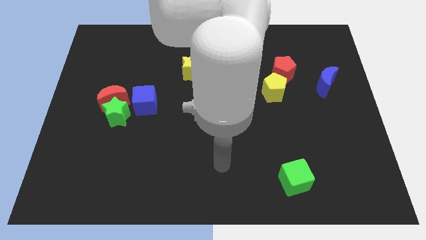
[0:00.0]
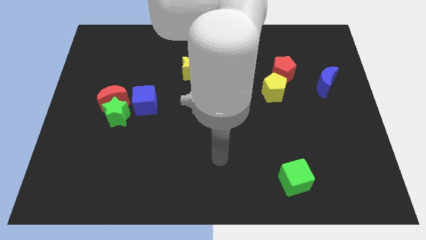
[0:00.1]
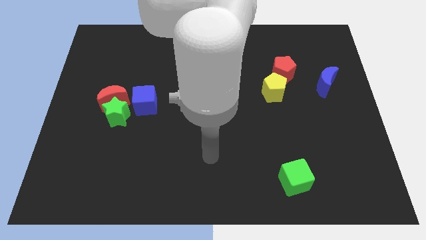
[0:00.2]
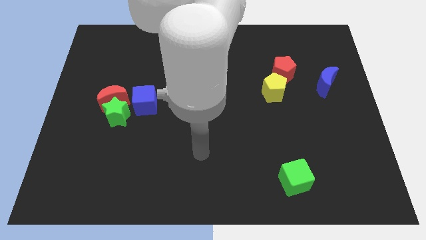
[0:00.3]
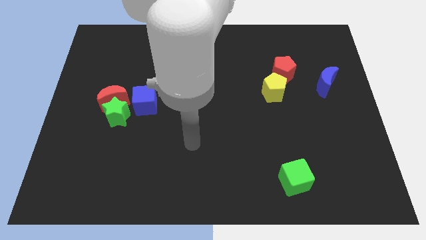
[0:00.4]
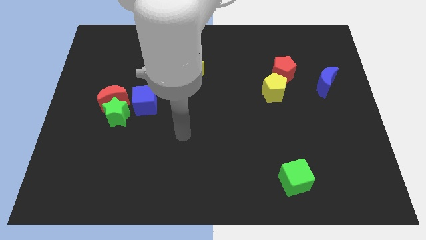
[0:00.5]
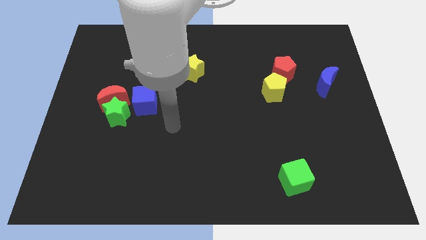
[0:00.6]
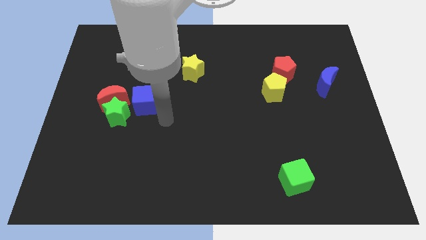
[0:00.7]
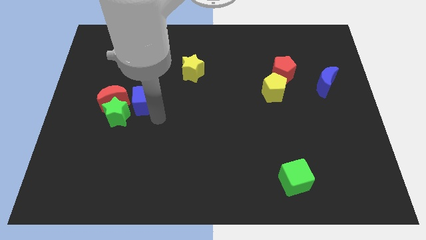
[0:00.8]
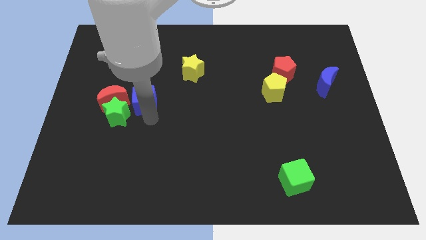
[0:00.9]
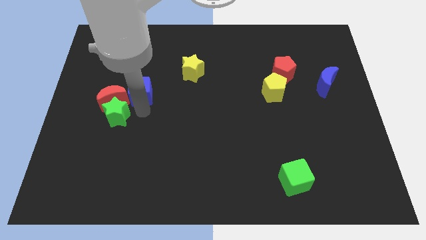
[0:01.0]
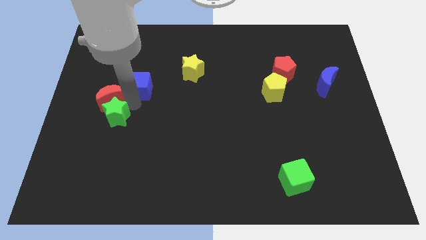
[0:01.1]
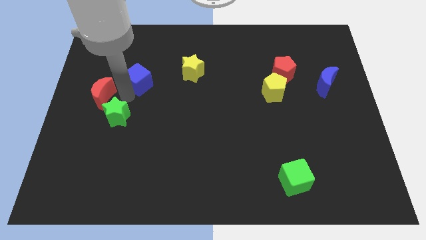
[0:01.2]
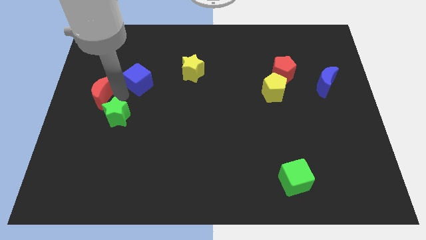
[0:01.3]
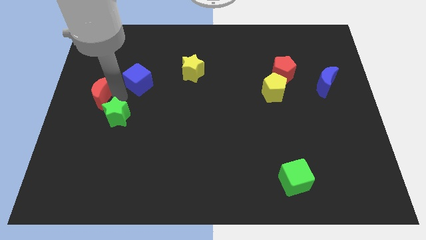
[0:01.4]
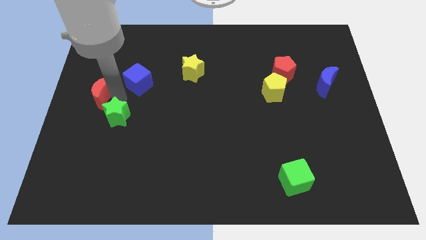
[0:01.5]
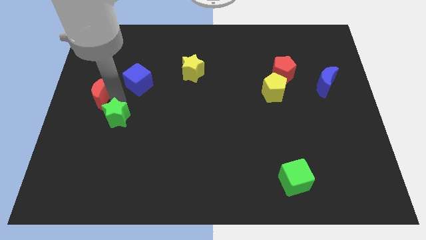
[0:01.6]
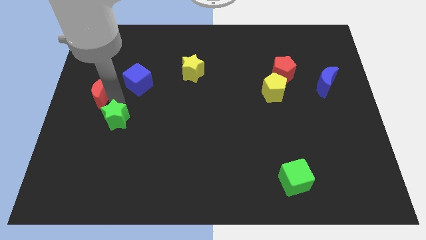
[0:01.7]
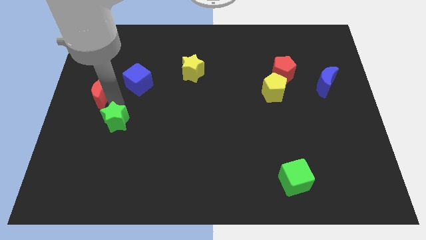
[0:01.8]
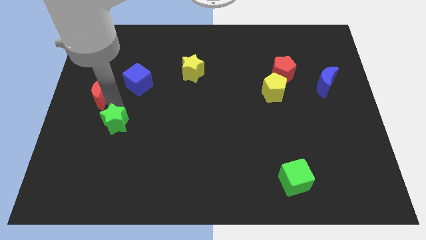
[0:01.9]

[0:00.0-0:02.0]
move the green star away from the red moon and blue cube

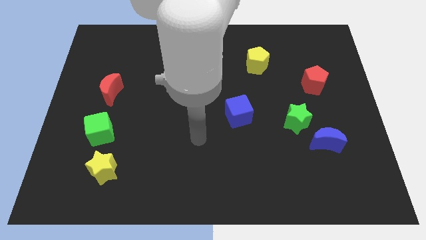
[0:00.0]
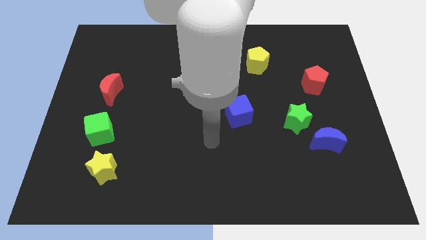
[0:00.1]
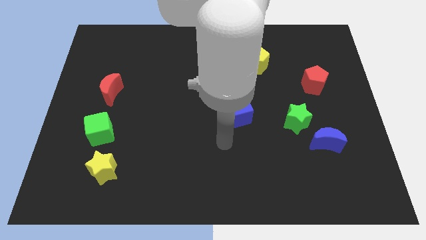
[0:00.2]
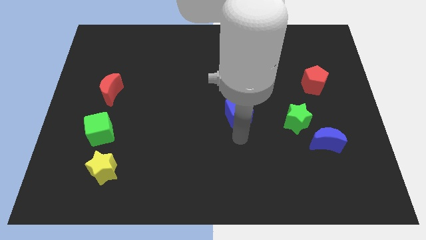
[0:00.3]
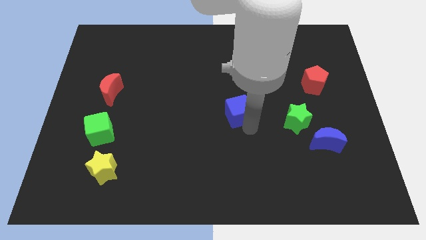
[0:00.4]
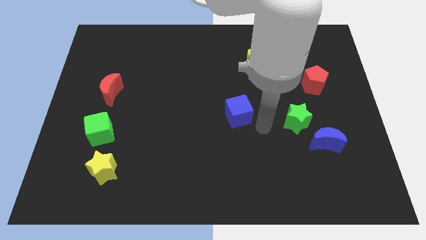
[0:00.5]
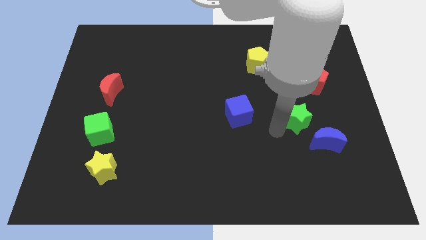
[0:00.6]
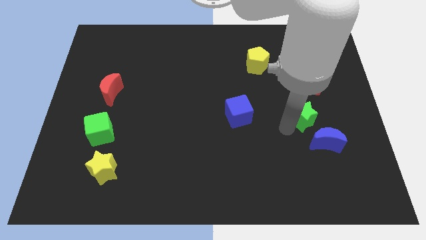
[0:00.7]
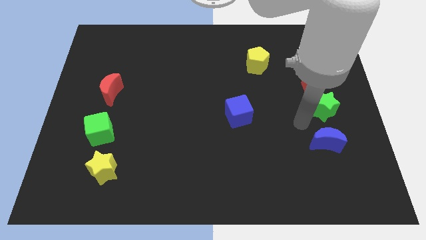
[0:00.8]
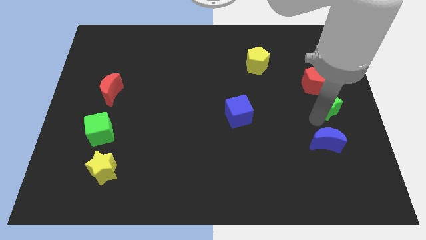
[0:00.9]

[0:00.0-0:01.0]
pull the blue moon apart from the green star

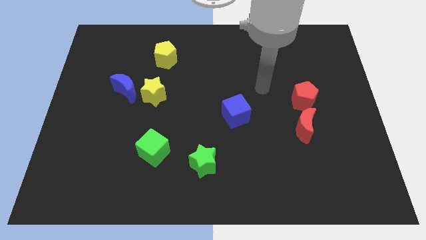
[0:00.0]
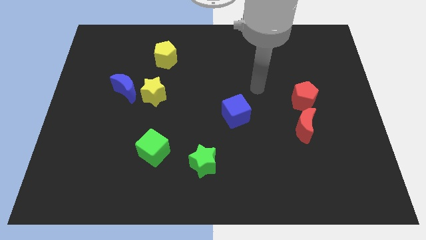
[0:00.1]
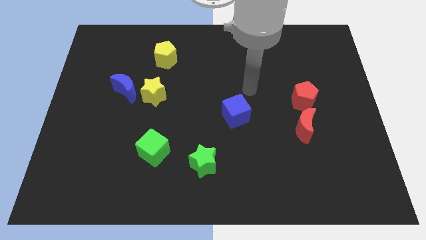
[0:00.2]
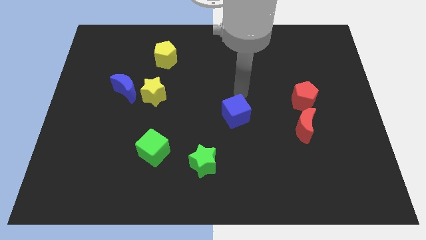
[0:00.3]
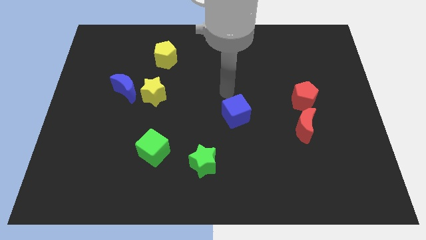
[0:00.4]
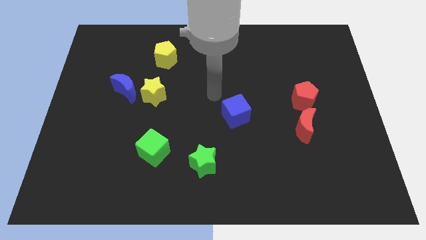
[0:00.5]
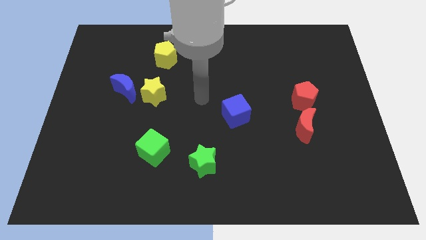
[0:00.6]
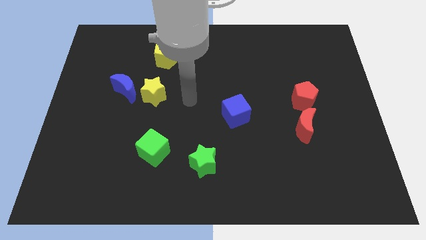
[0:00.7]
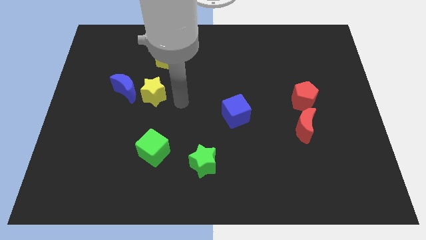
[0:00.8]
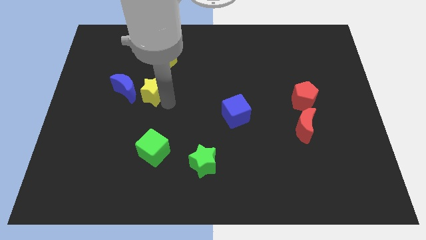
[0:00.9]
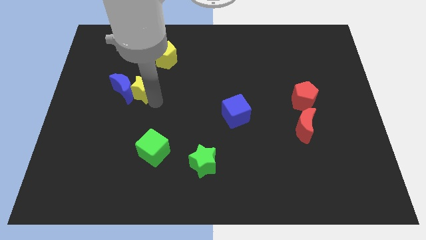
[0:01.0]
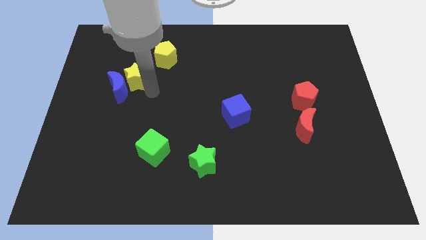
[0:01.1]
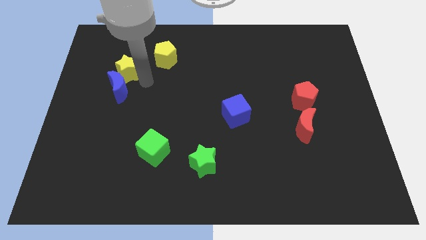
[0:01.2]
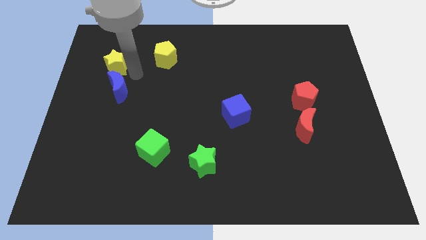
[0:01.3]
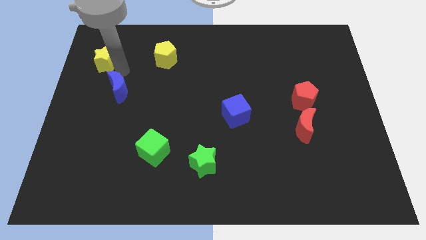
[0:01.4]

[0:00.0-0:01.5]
separate the blue moon from the yellow star

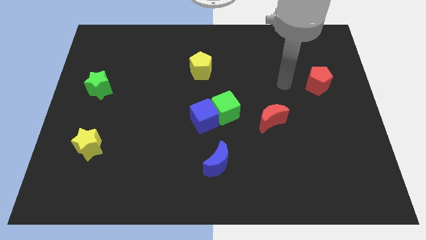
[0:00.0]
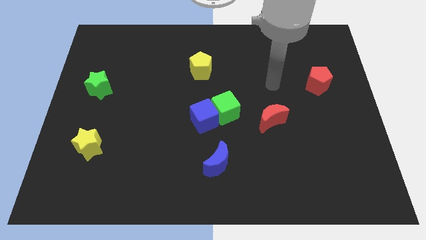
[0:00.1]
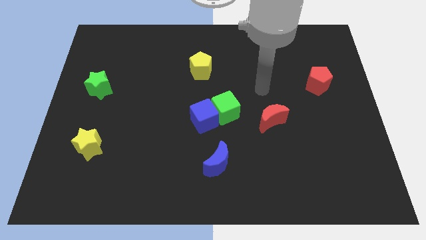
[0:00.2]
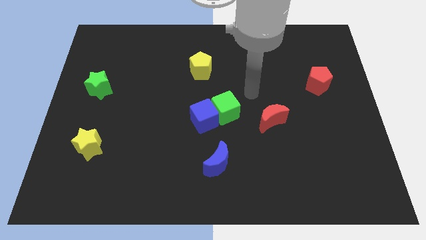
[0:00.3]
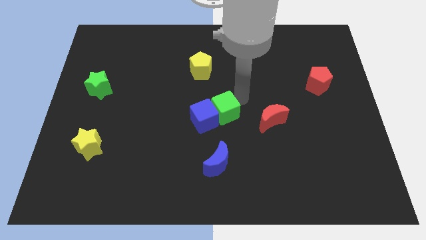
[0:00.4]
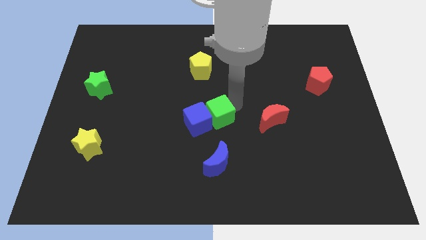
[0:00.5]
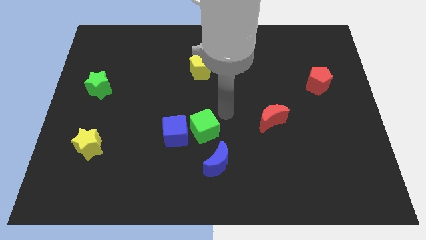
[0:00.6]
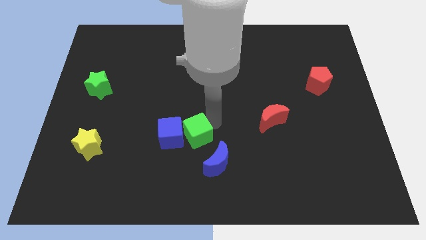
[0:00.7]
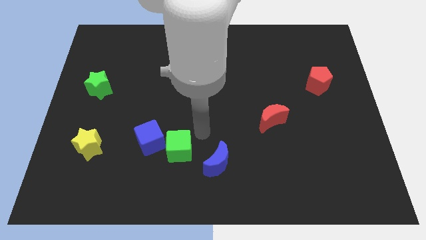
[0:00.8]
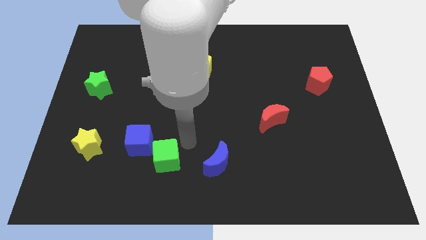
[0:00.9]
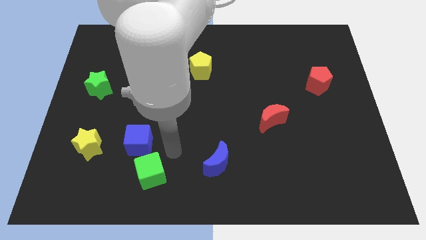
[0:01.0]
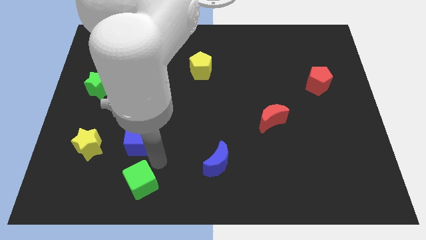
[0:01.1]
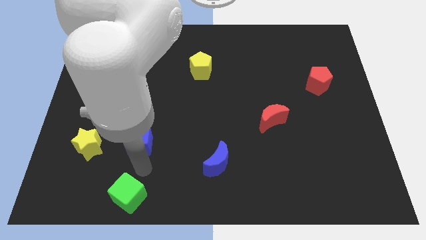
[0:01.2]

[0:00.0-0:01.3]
separate the blue cube from the green cube

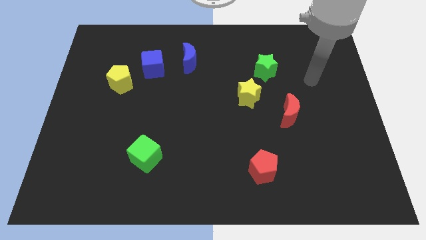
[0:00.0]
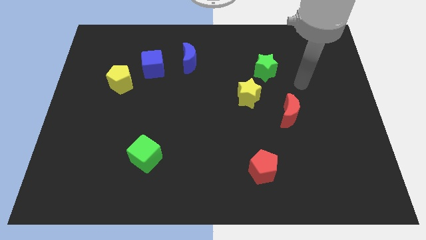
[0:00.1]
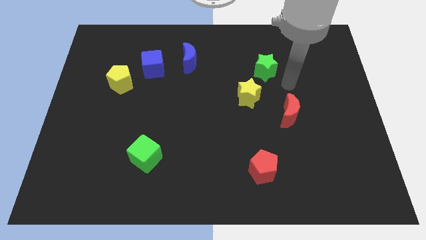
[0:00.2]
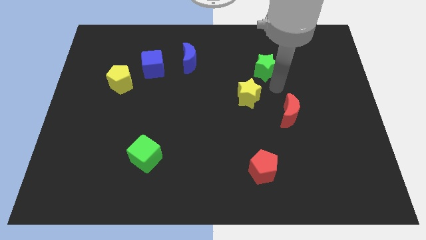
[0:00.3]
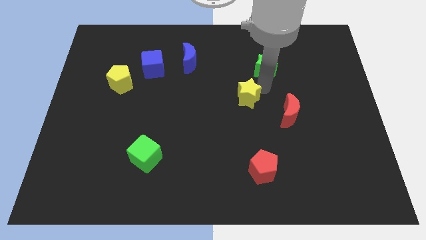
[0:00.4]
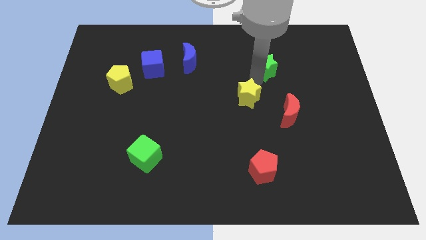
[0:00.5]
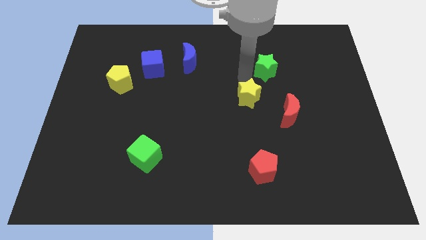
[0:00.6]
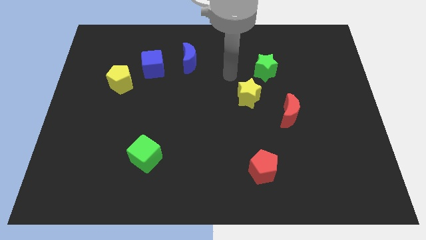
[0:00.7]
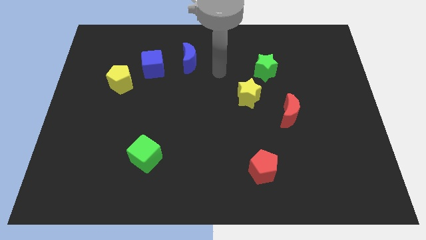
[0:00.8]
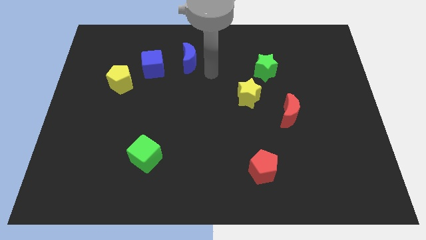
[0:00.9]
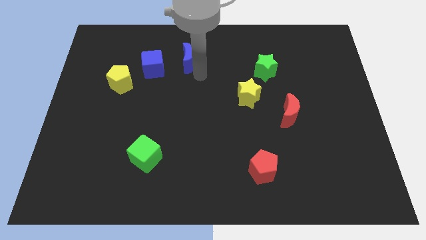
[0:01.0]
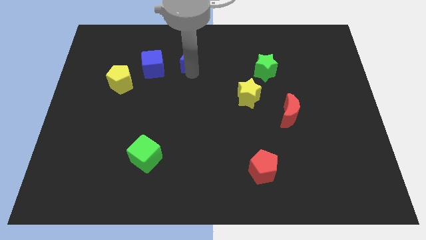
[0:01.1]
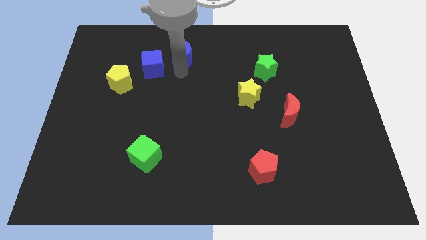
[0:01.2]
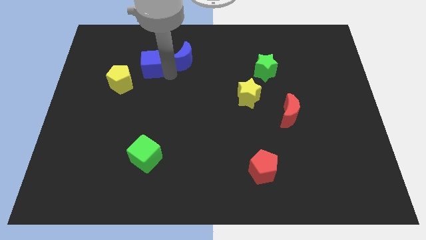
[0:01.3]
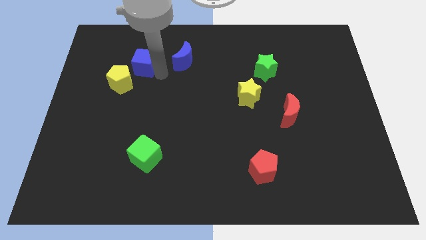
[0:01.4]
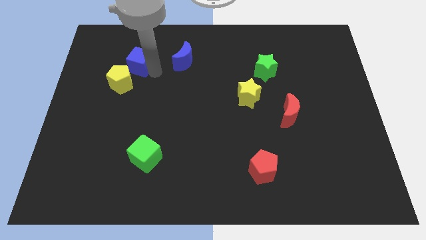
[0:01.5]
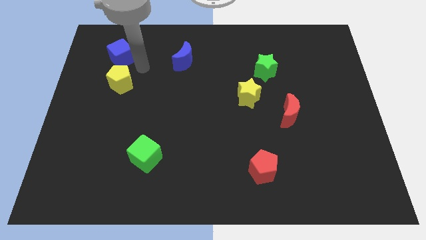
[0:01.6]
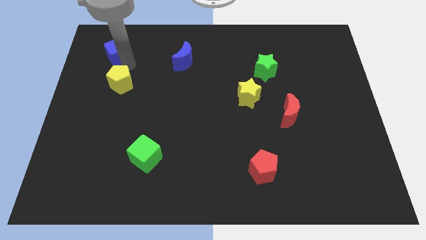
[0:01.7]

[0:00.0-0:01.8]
move the yellow pentagon away from the blue cube

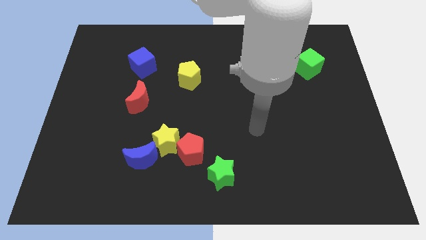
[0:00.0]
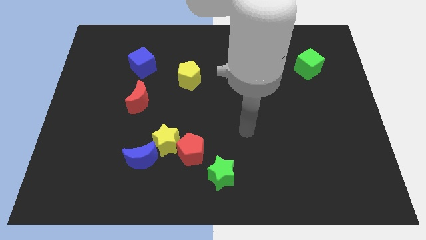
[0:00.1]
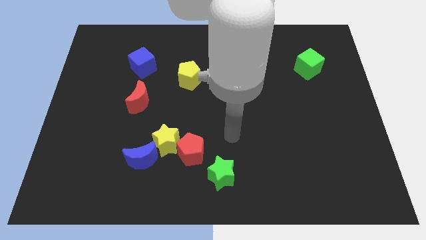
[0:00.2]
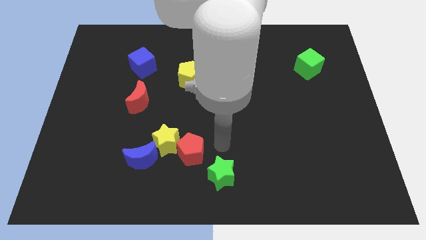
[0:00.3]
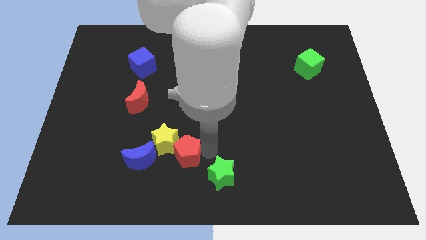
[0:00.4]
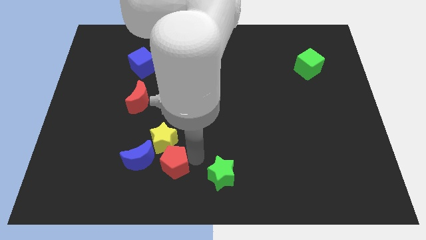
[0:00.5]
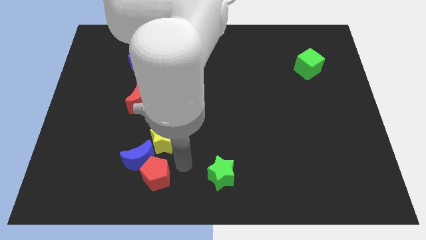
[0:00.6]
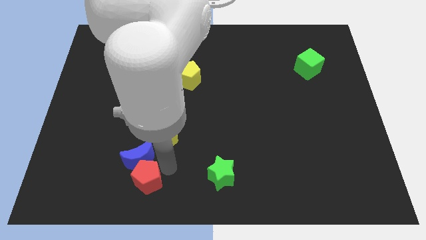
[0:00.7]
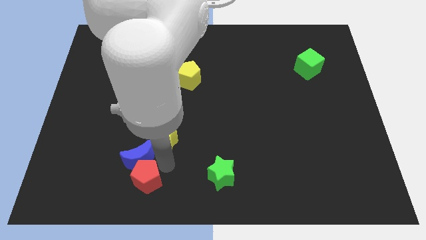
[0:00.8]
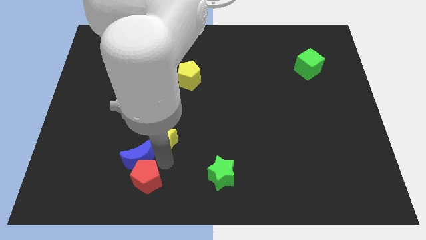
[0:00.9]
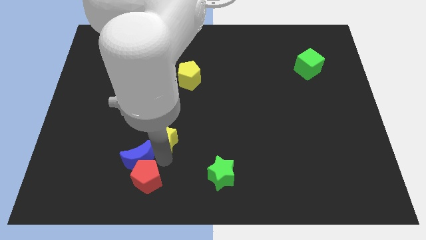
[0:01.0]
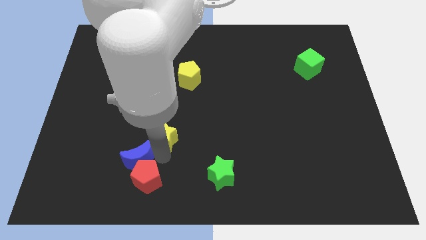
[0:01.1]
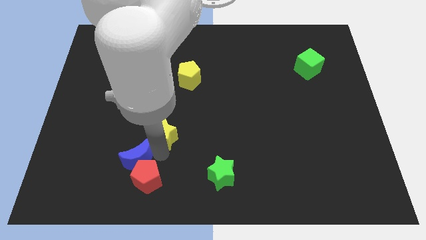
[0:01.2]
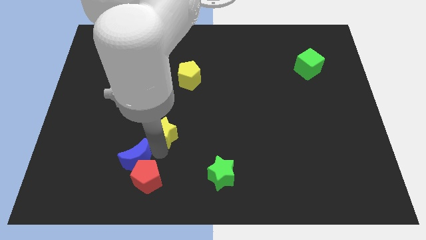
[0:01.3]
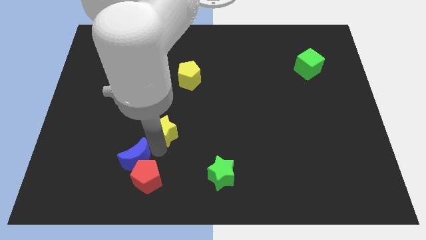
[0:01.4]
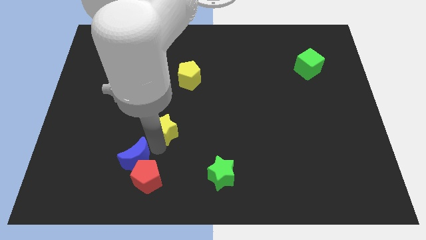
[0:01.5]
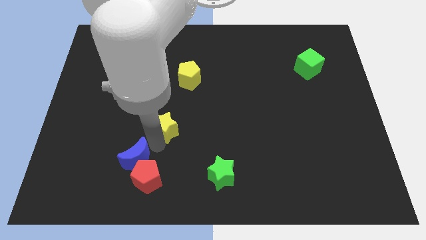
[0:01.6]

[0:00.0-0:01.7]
move the yellow star away from the red pentagon and blue moon

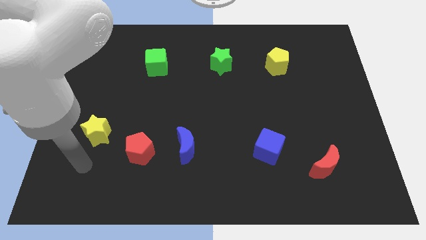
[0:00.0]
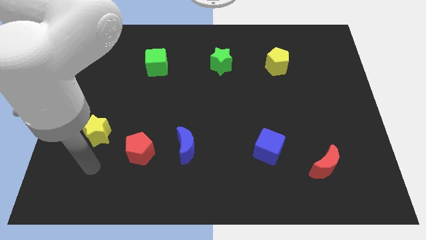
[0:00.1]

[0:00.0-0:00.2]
pull the red pentagon apart from the blue moon
